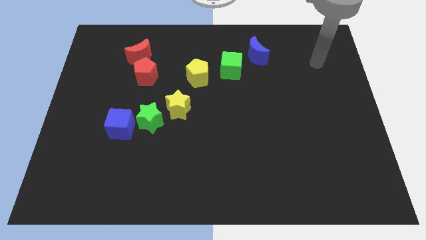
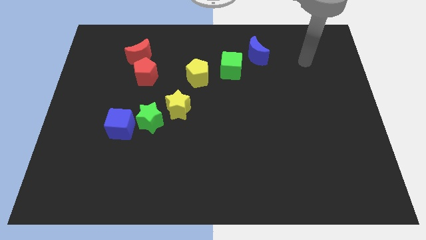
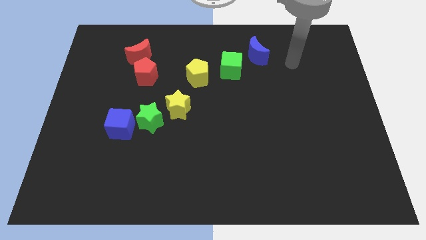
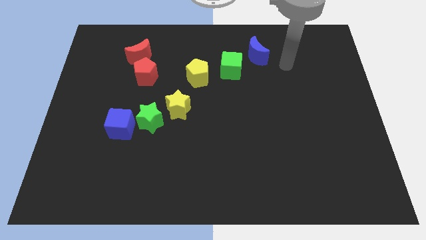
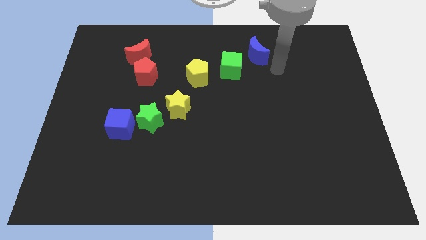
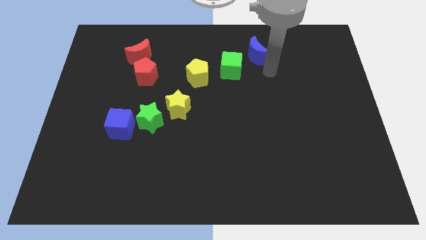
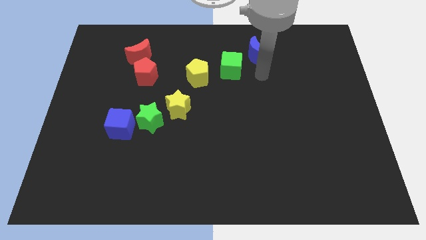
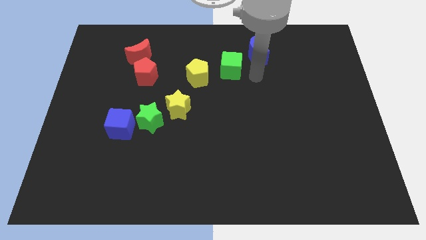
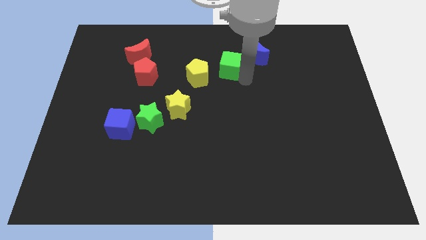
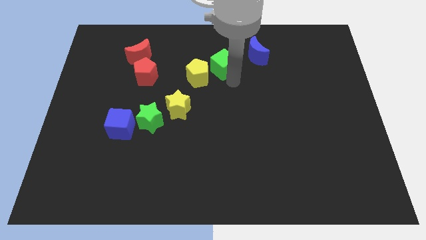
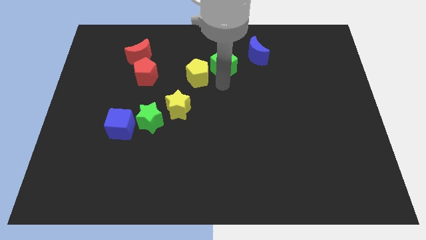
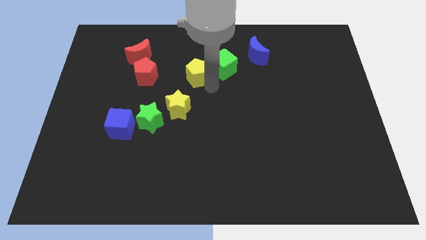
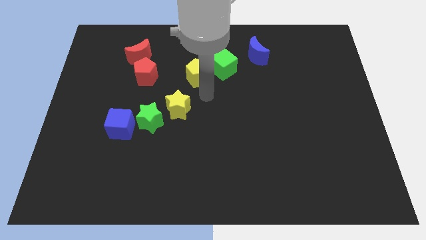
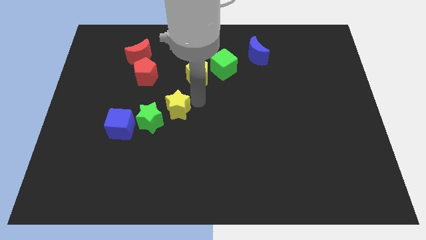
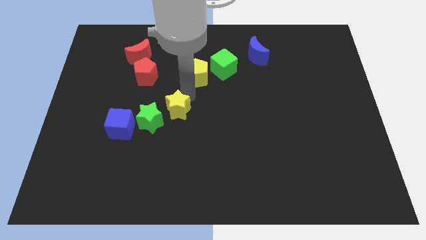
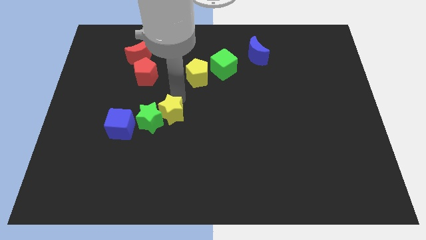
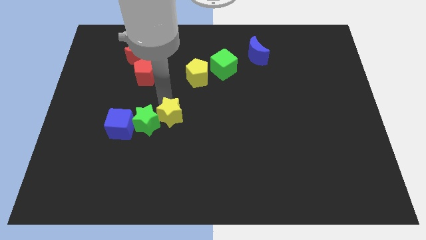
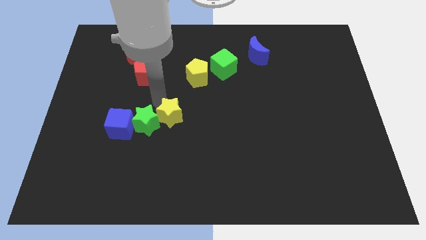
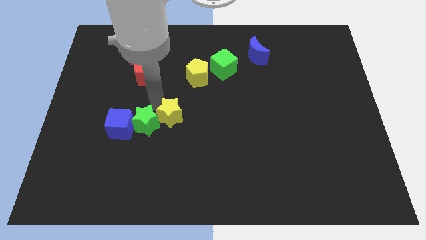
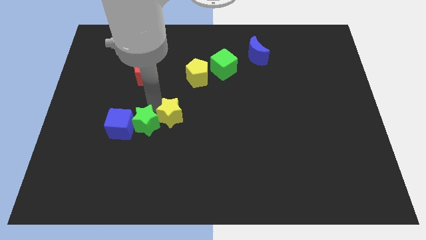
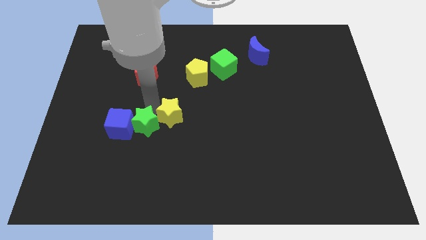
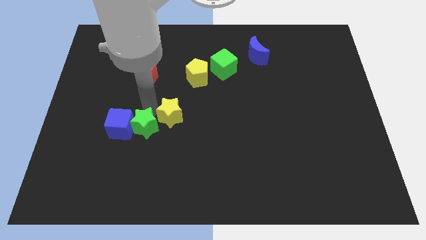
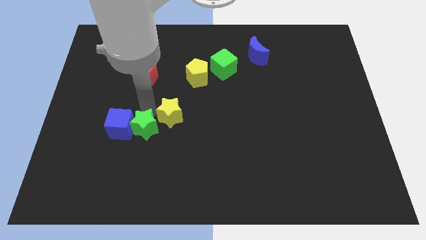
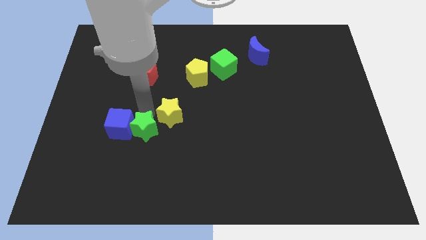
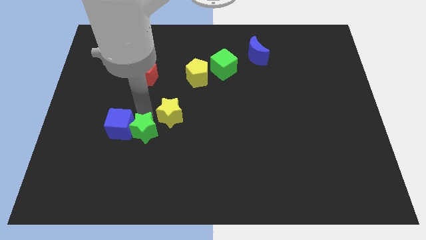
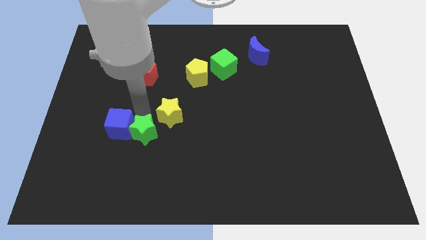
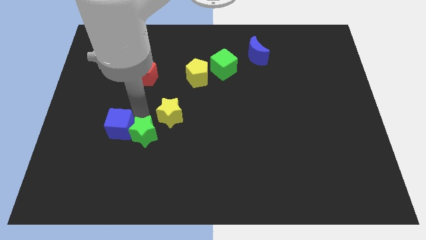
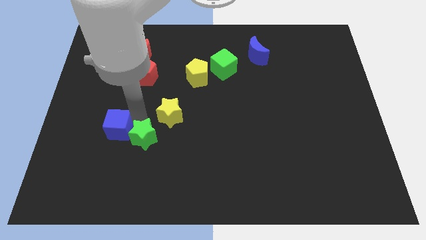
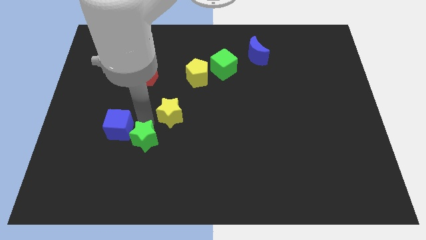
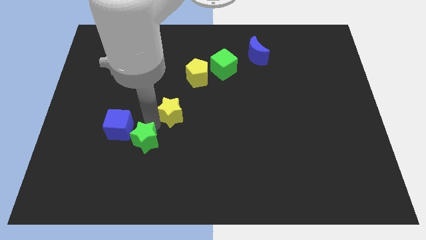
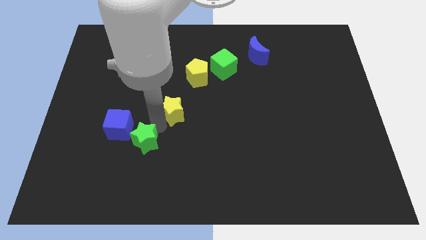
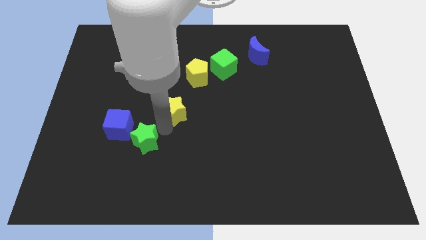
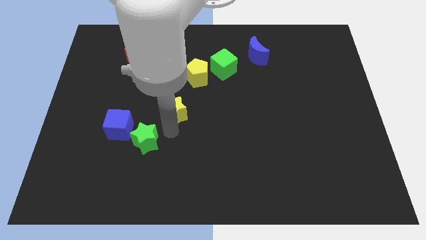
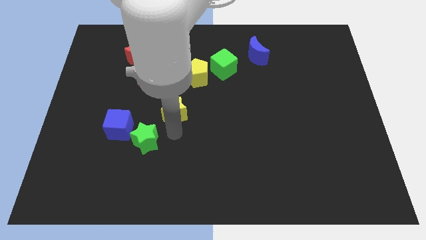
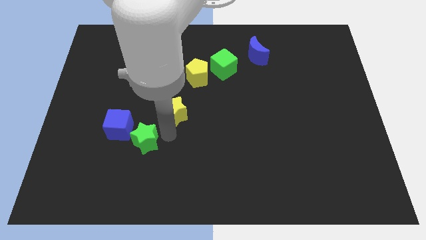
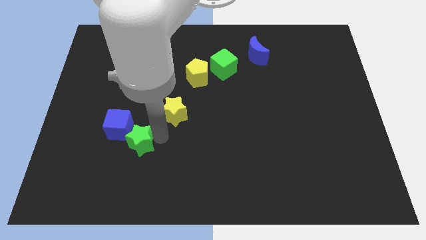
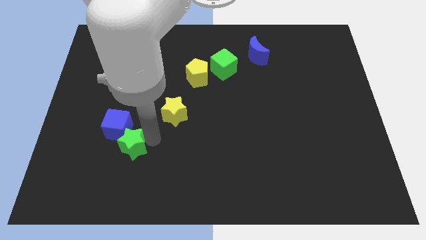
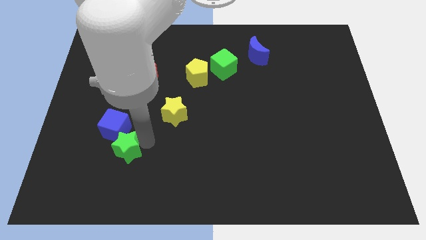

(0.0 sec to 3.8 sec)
move the green star a bit down and left

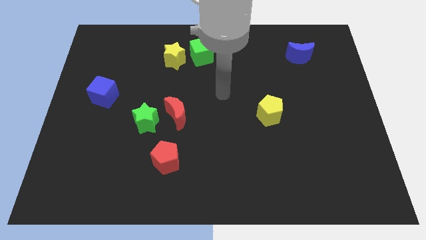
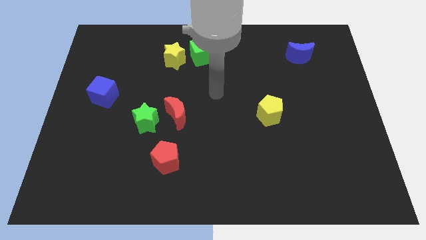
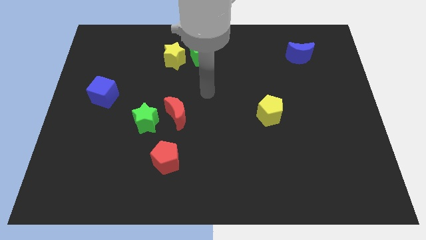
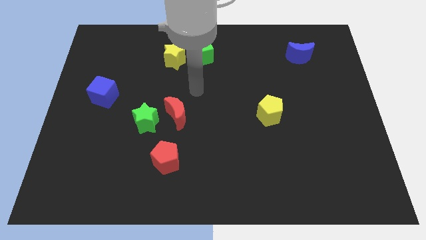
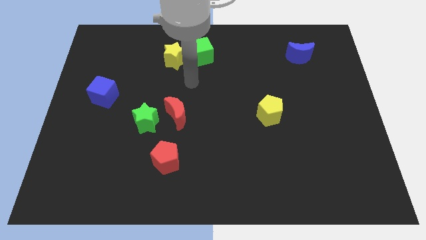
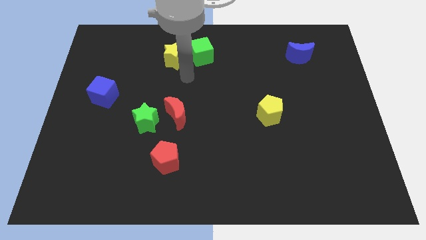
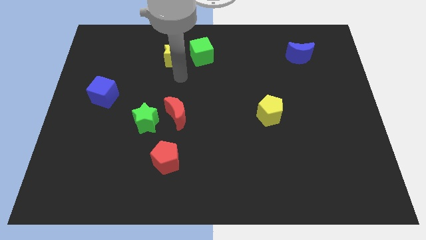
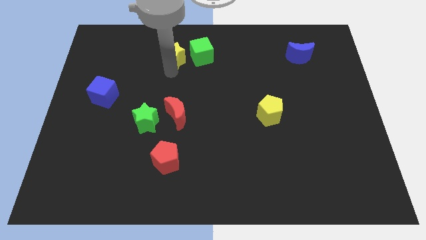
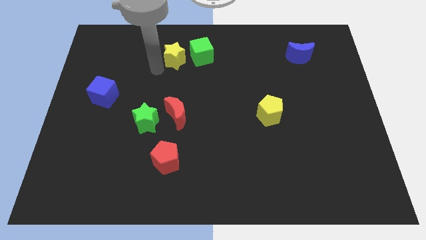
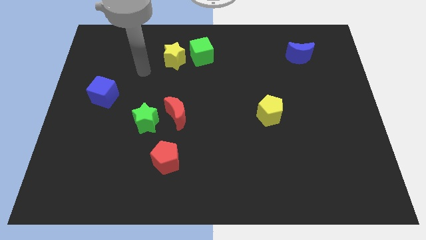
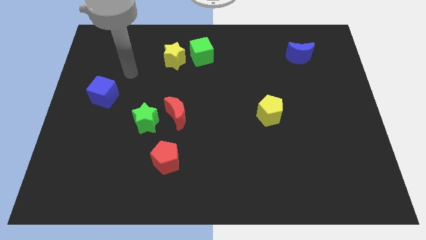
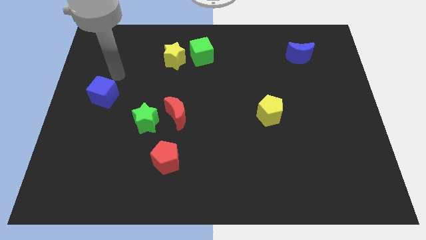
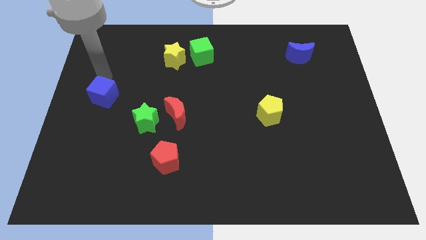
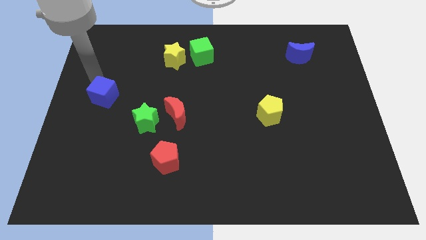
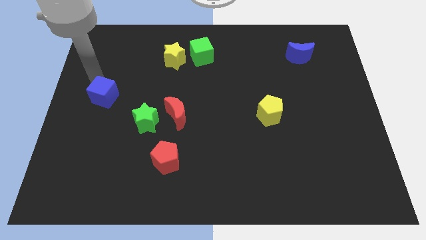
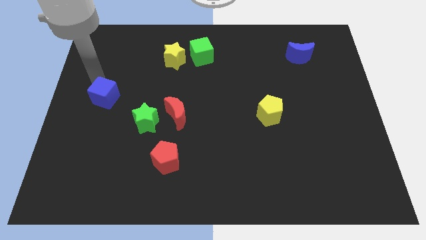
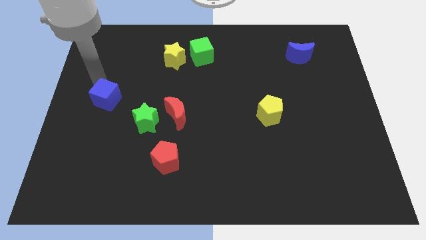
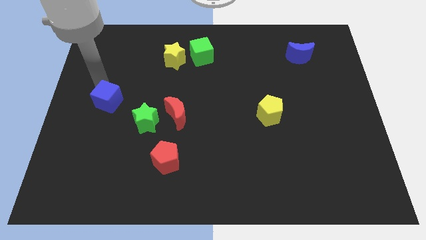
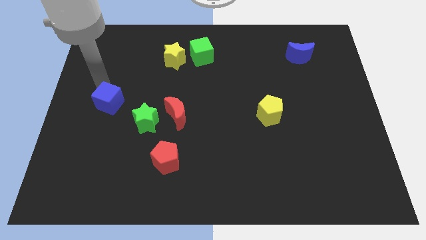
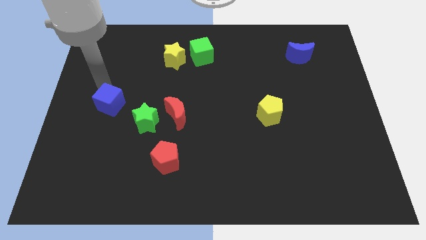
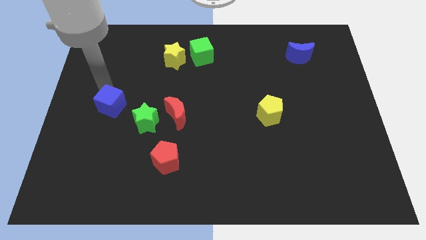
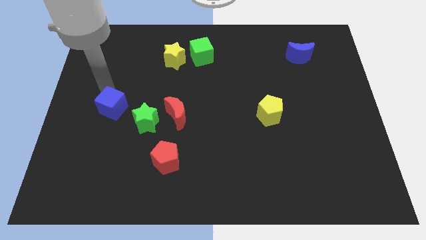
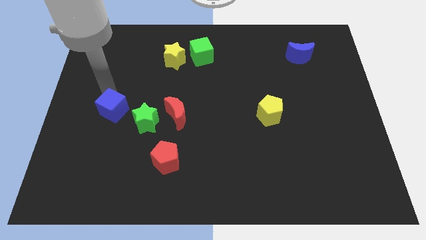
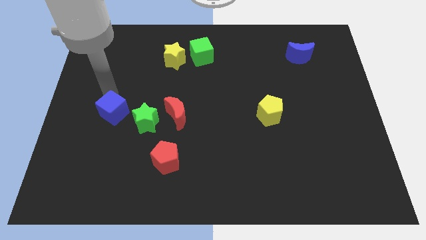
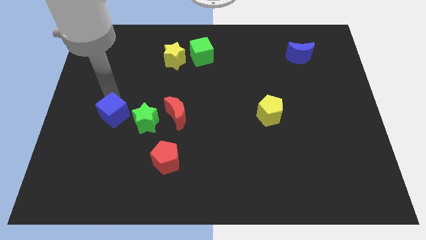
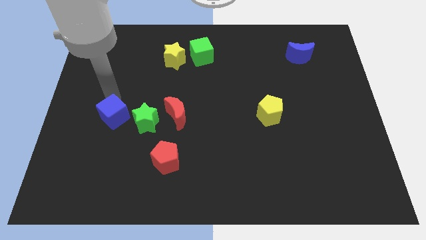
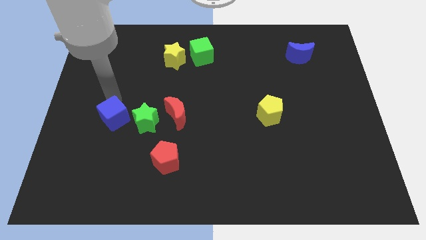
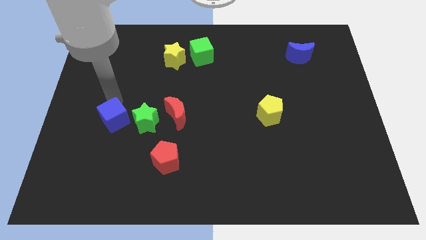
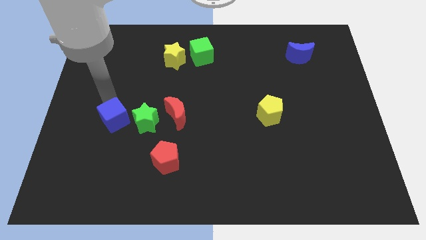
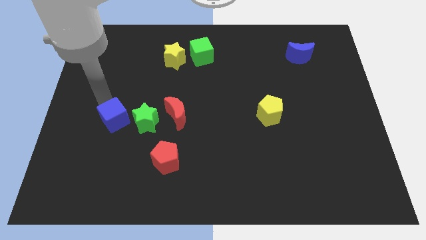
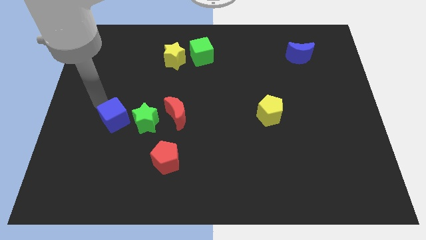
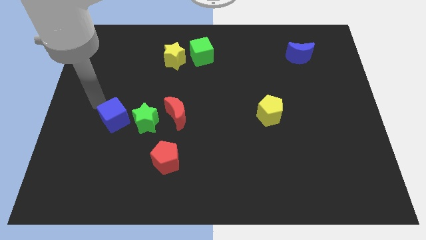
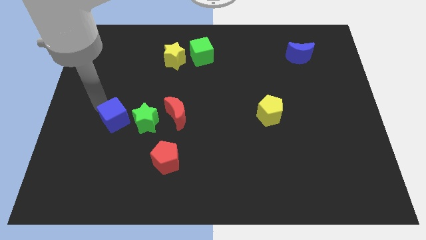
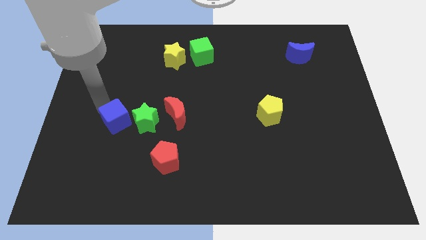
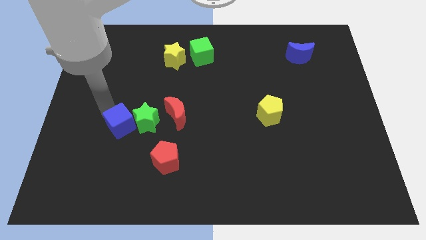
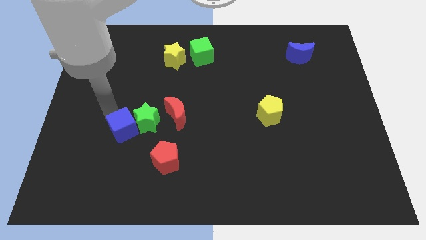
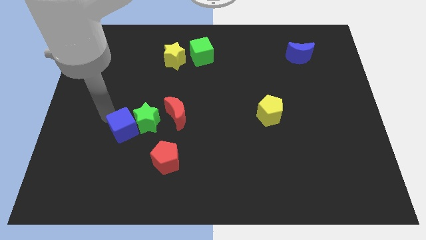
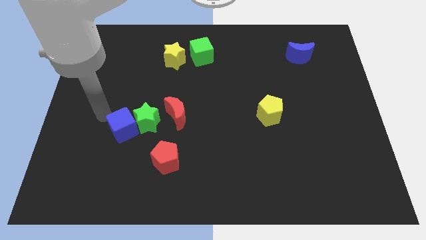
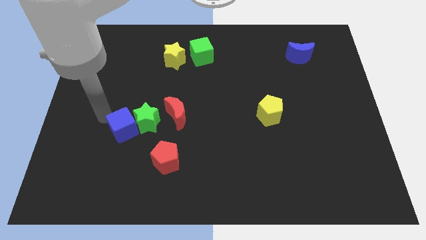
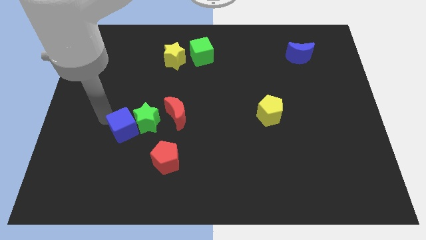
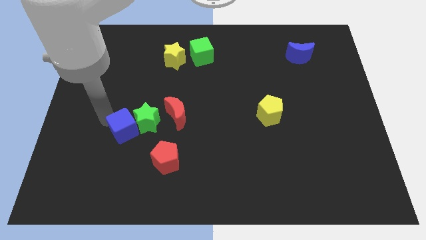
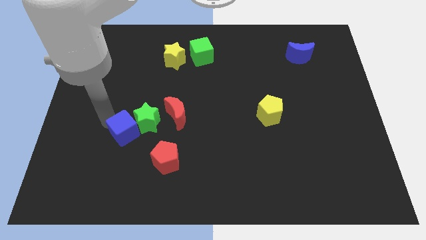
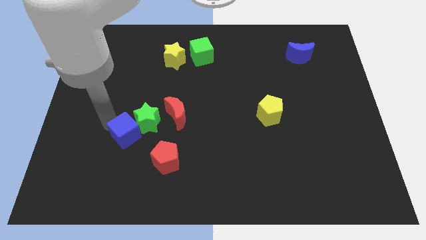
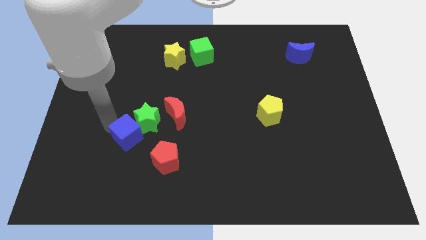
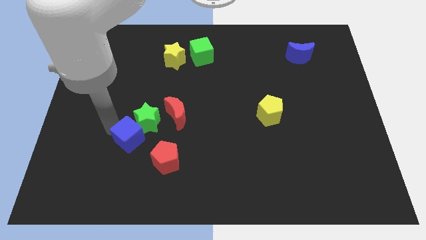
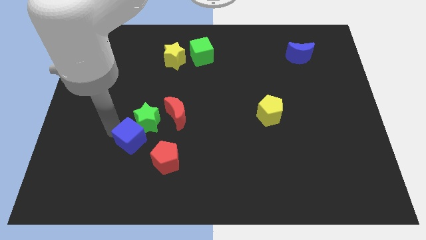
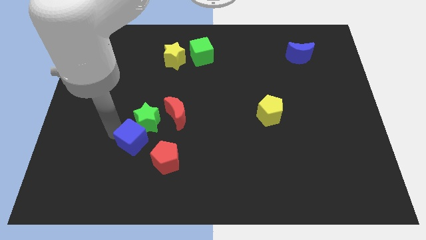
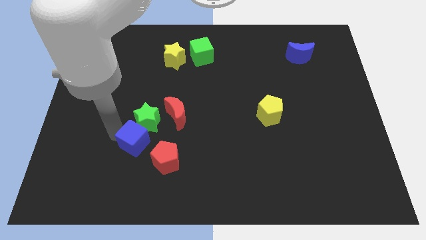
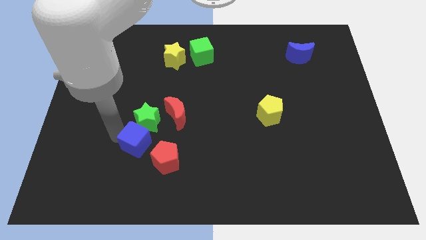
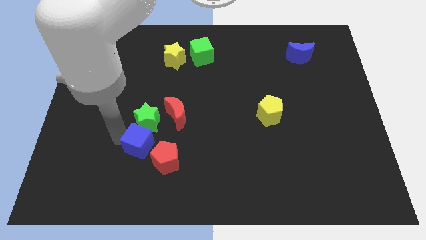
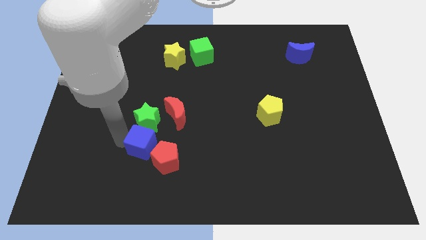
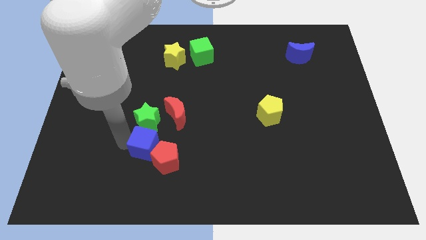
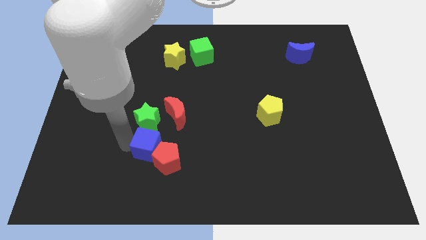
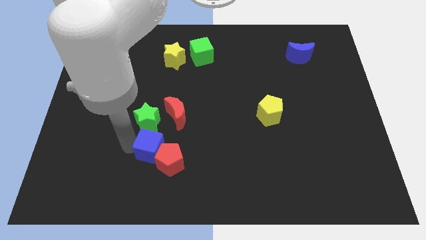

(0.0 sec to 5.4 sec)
slide the blue cube downwards and right
